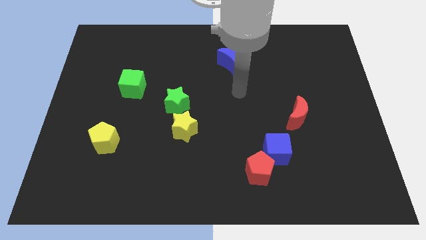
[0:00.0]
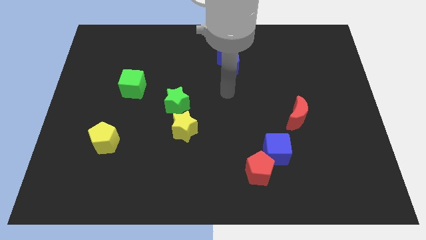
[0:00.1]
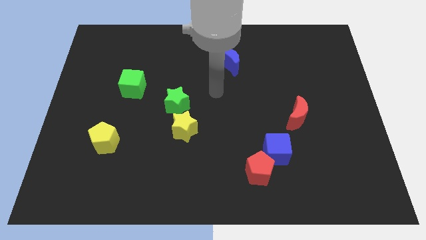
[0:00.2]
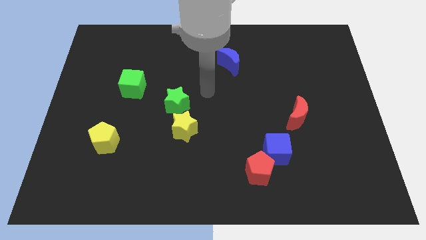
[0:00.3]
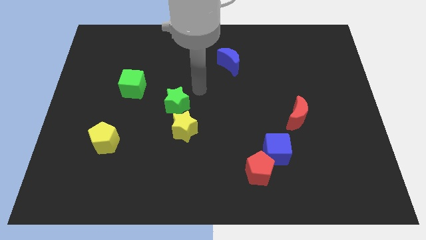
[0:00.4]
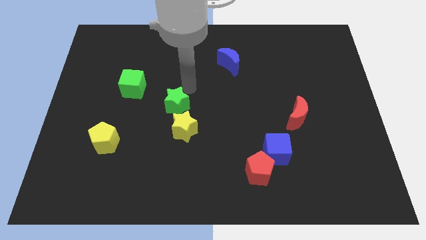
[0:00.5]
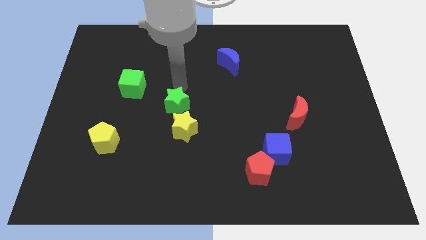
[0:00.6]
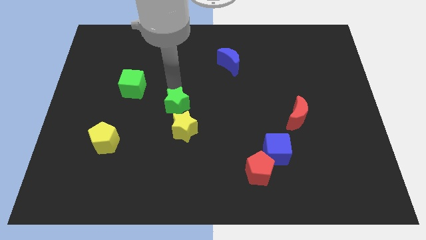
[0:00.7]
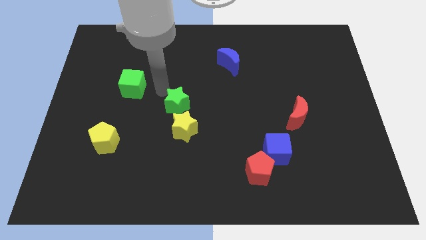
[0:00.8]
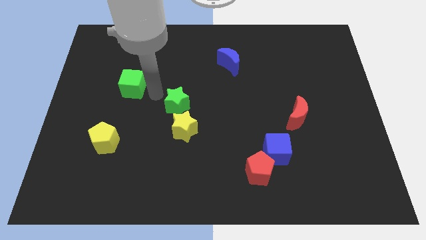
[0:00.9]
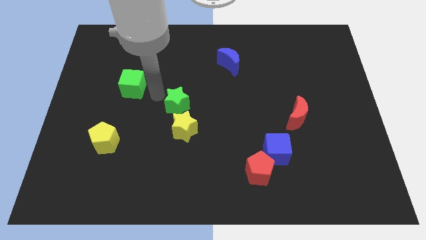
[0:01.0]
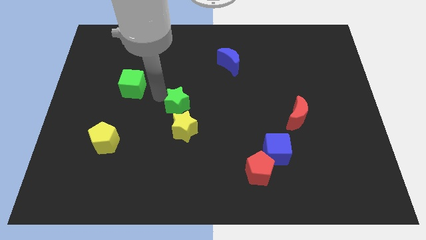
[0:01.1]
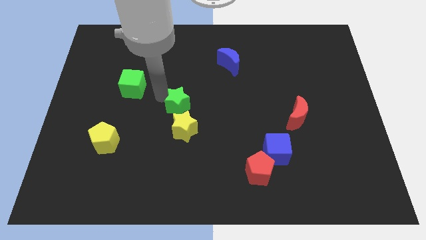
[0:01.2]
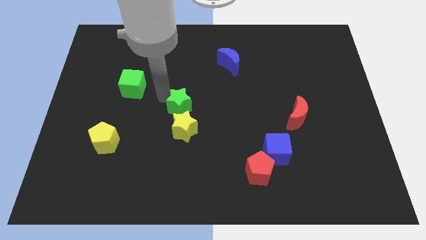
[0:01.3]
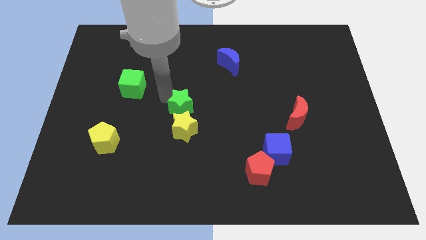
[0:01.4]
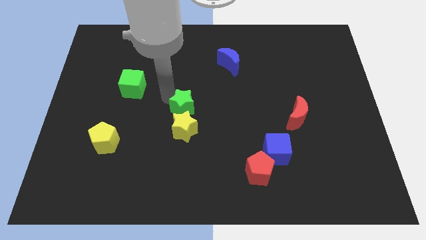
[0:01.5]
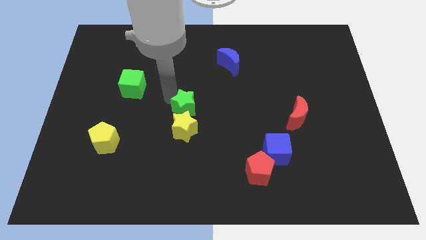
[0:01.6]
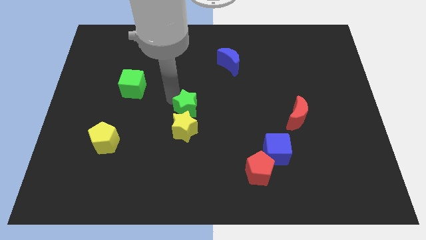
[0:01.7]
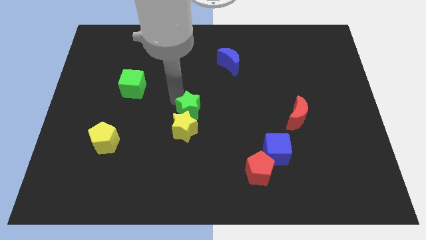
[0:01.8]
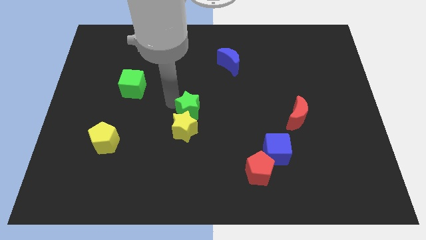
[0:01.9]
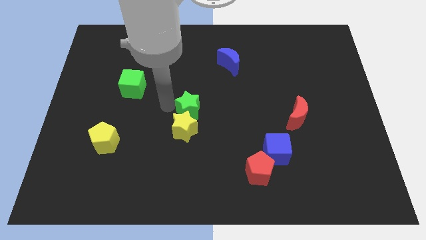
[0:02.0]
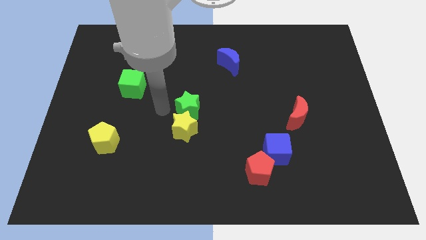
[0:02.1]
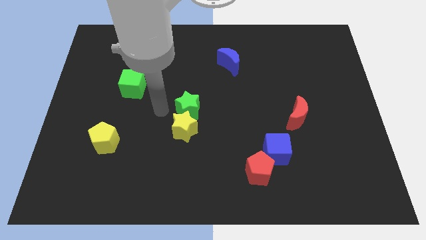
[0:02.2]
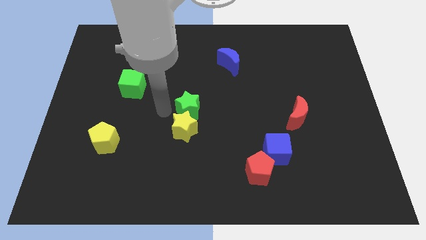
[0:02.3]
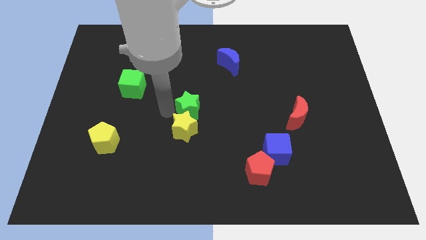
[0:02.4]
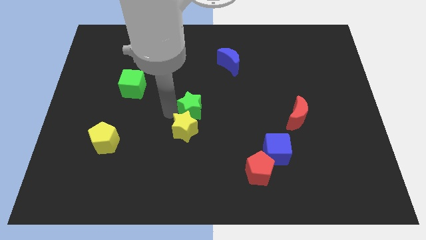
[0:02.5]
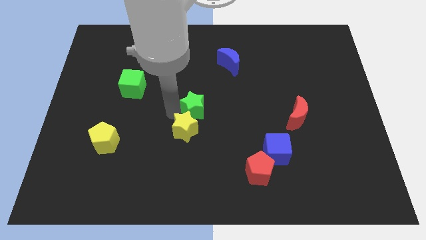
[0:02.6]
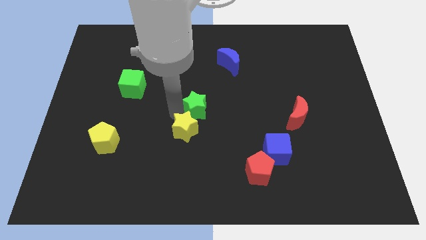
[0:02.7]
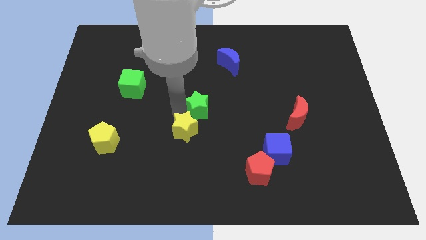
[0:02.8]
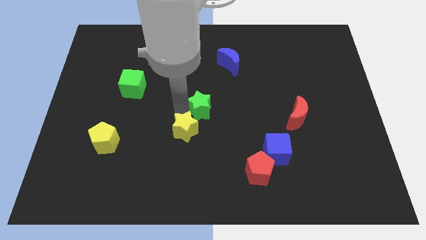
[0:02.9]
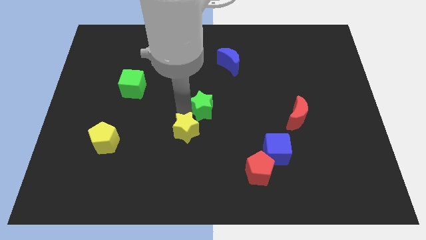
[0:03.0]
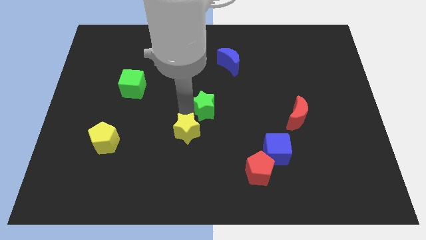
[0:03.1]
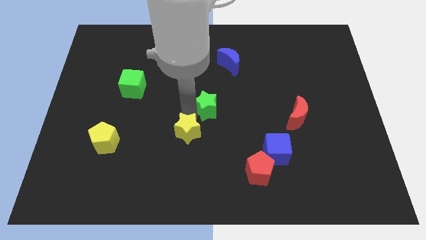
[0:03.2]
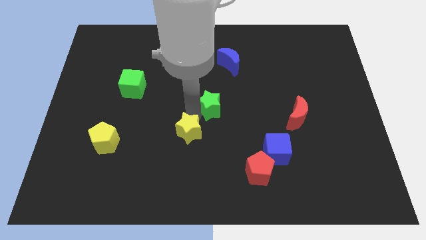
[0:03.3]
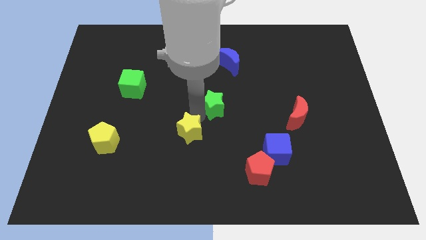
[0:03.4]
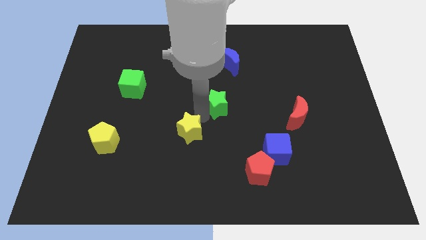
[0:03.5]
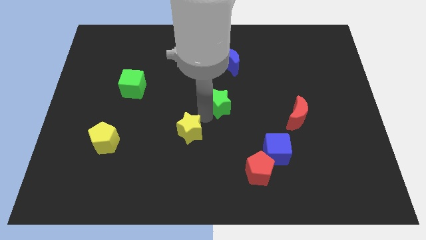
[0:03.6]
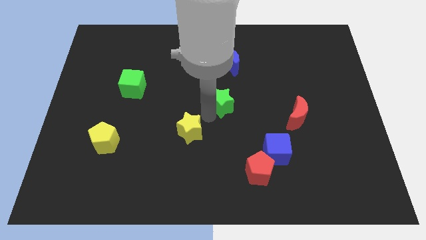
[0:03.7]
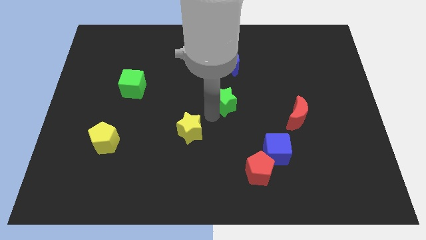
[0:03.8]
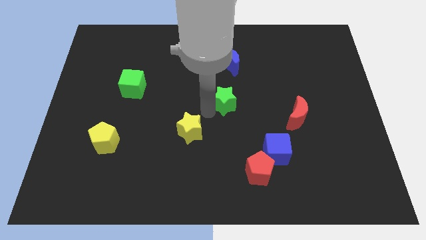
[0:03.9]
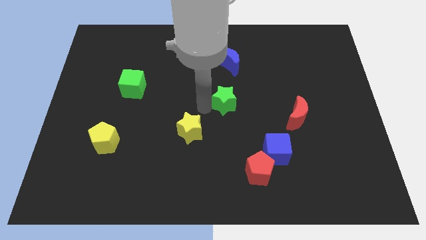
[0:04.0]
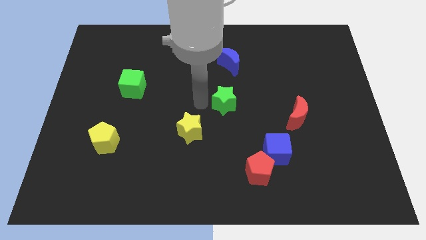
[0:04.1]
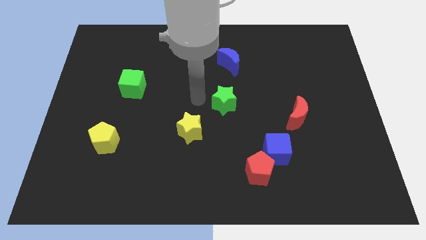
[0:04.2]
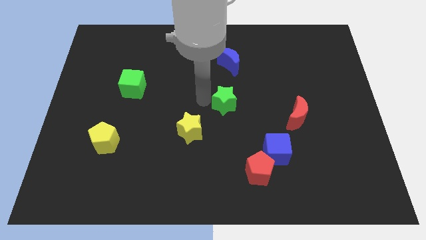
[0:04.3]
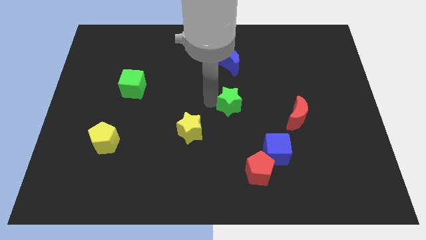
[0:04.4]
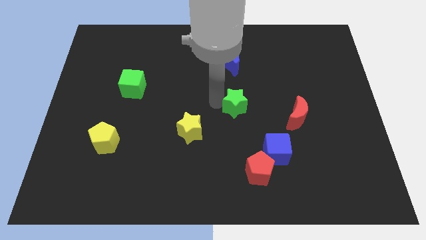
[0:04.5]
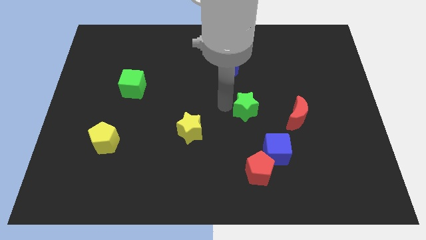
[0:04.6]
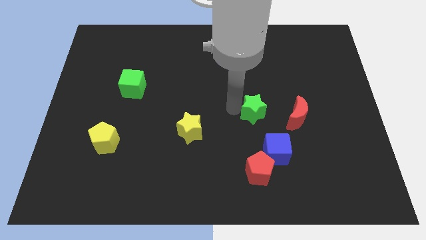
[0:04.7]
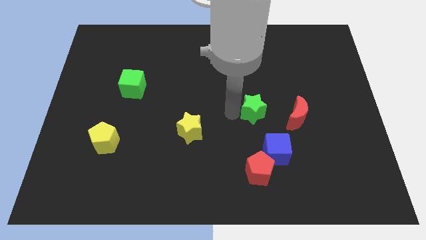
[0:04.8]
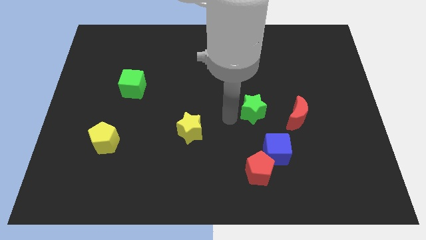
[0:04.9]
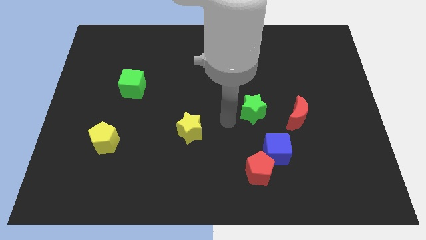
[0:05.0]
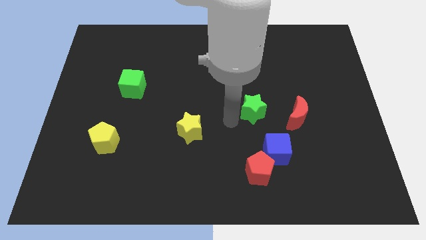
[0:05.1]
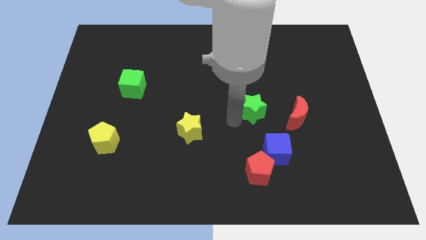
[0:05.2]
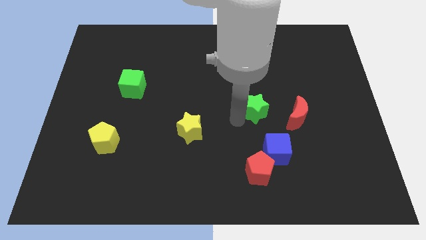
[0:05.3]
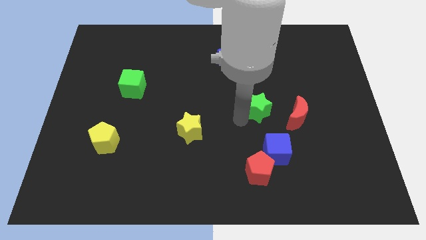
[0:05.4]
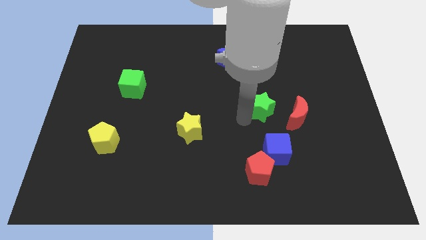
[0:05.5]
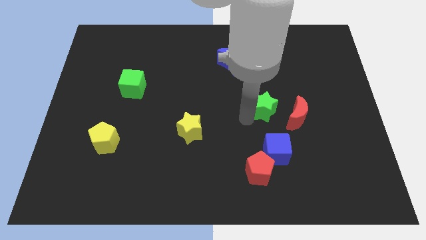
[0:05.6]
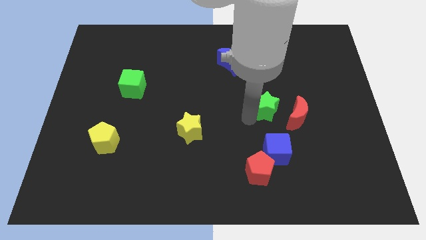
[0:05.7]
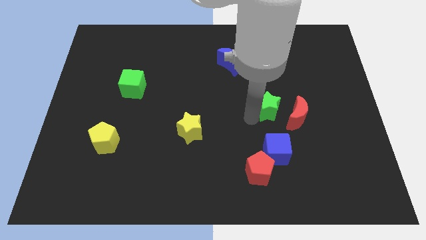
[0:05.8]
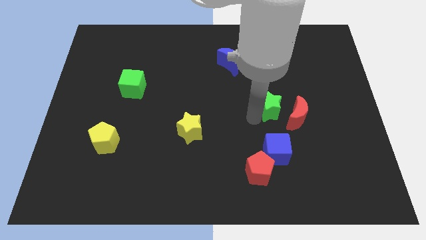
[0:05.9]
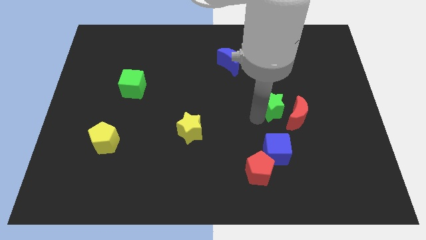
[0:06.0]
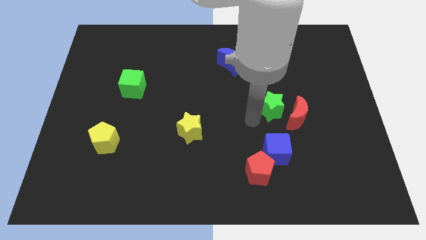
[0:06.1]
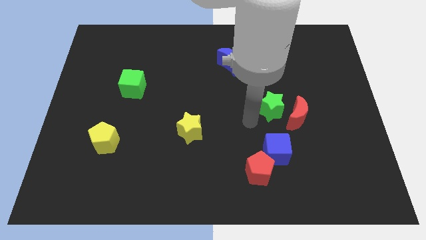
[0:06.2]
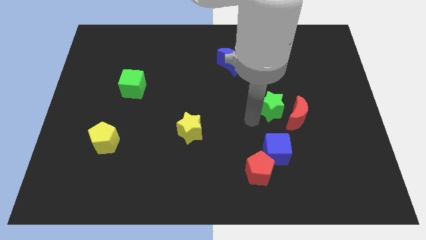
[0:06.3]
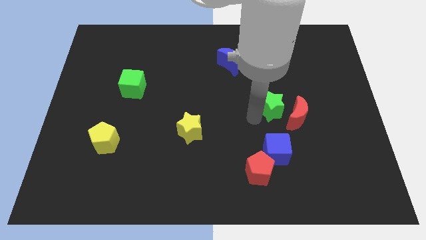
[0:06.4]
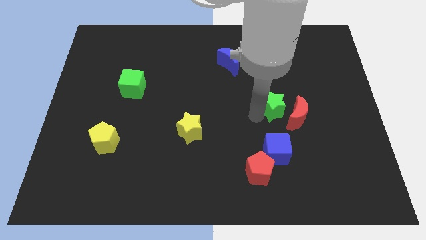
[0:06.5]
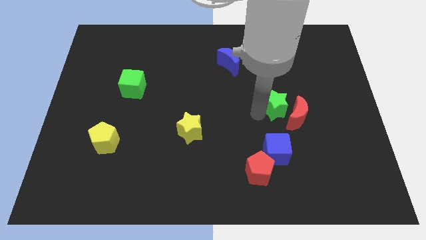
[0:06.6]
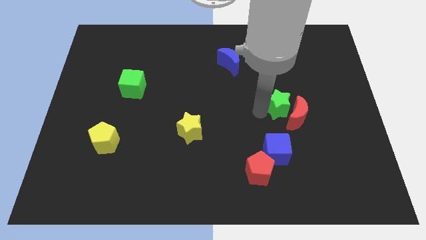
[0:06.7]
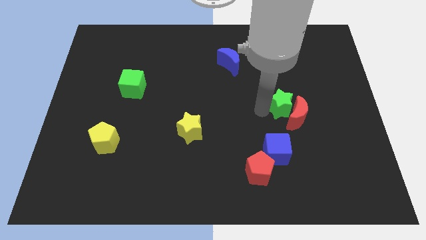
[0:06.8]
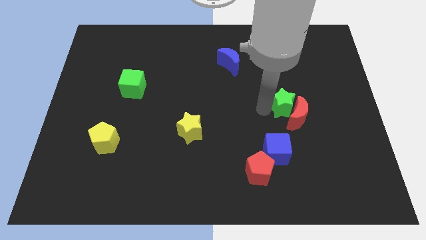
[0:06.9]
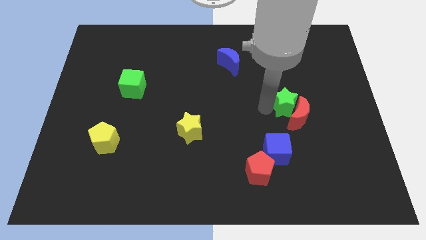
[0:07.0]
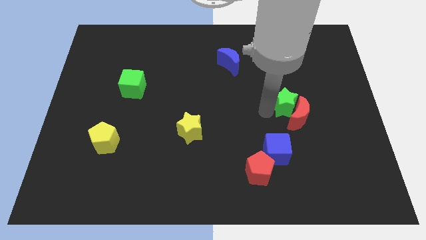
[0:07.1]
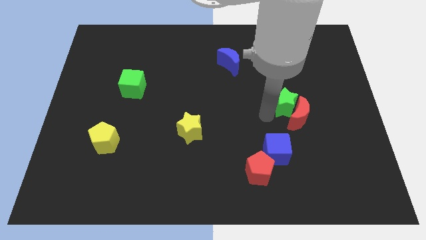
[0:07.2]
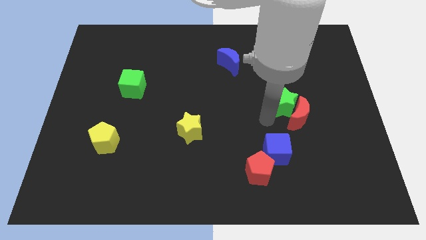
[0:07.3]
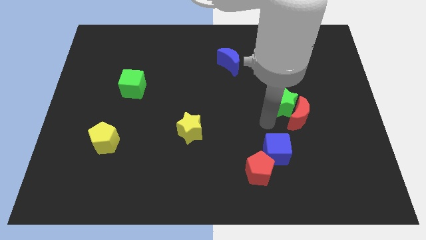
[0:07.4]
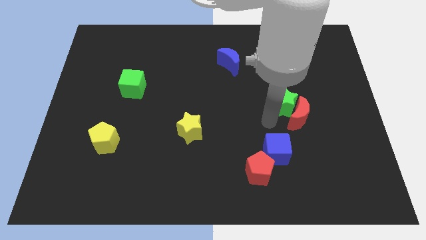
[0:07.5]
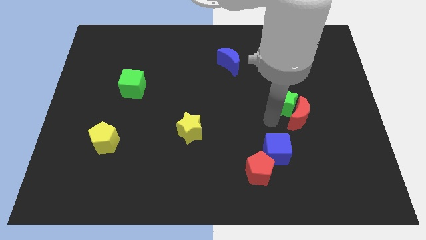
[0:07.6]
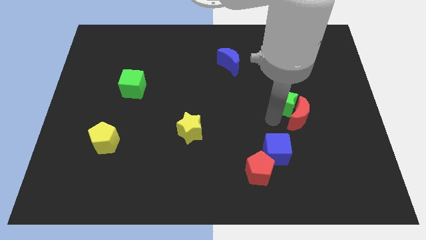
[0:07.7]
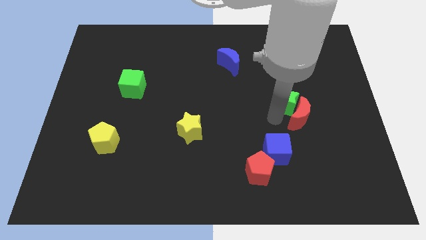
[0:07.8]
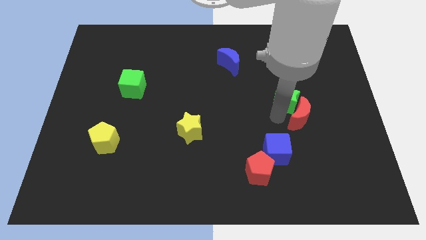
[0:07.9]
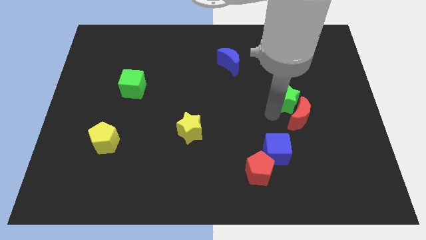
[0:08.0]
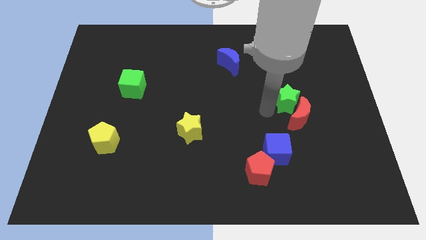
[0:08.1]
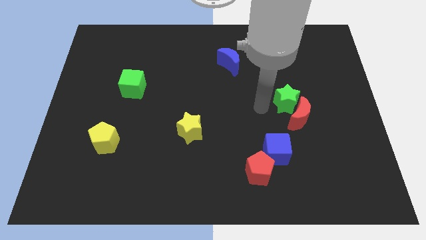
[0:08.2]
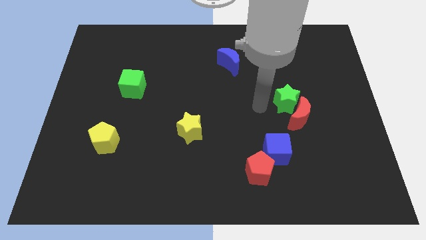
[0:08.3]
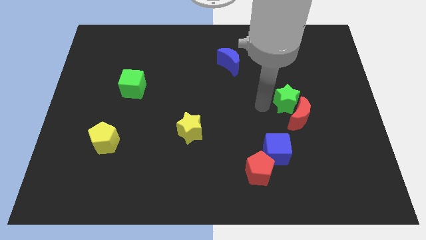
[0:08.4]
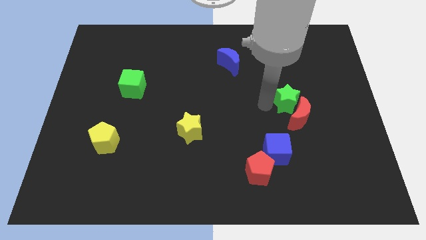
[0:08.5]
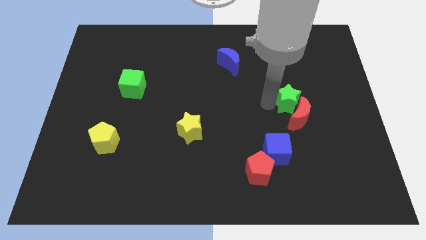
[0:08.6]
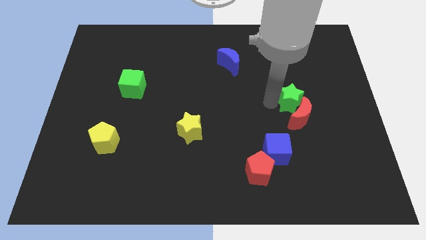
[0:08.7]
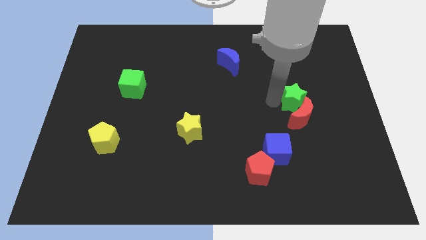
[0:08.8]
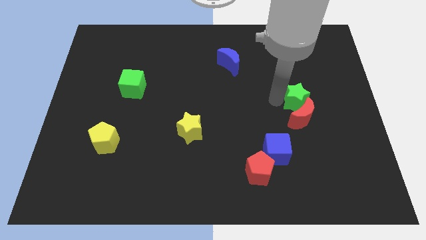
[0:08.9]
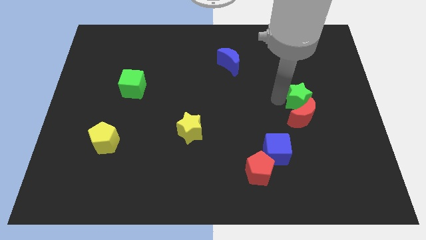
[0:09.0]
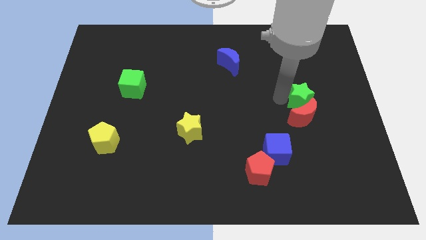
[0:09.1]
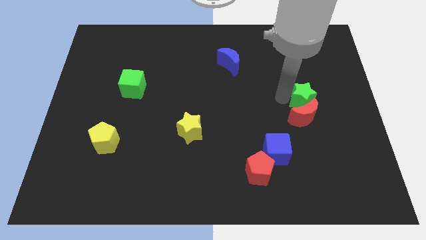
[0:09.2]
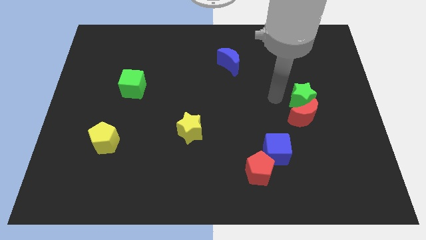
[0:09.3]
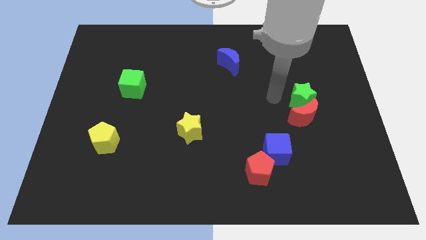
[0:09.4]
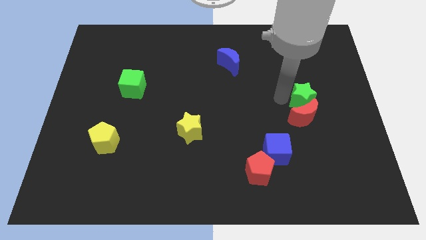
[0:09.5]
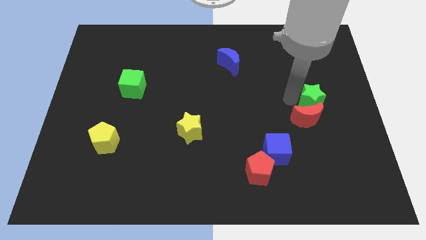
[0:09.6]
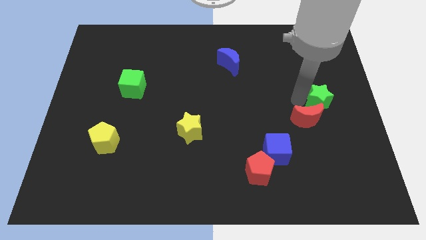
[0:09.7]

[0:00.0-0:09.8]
push the green star to the center right
